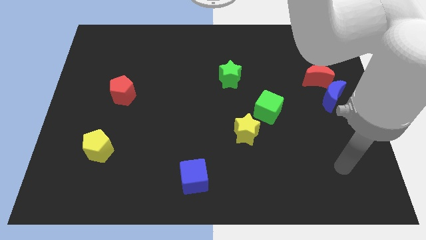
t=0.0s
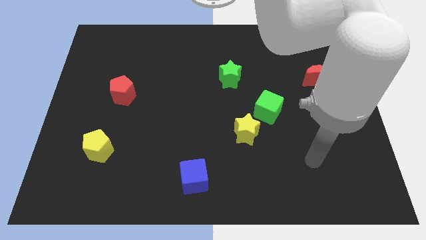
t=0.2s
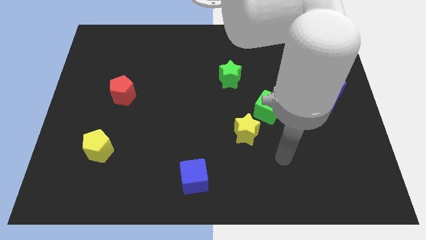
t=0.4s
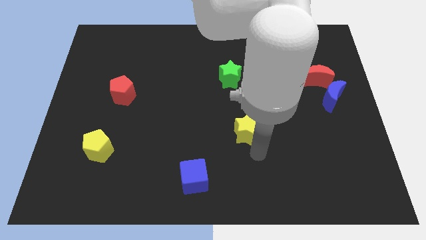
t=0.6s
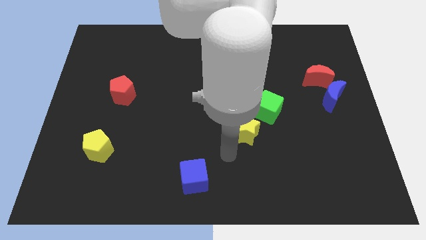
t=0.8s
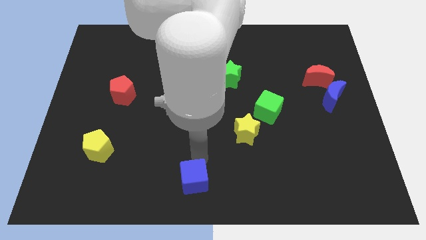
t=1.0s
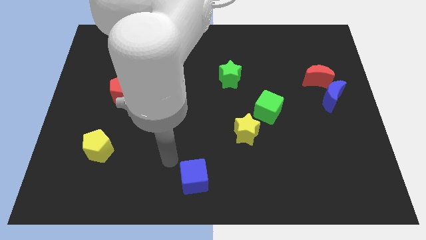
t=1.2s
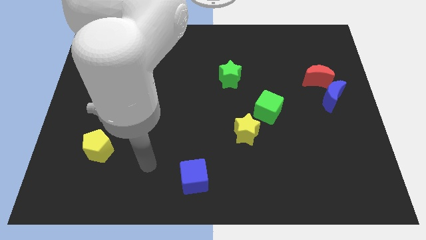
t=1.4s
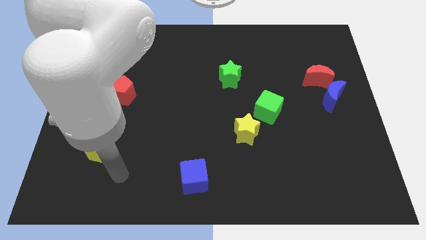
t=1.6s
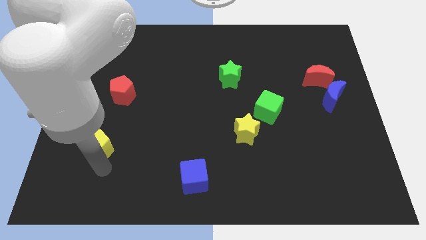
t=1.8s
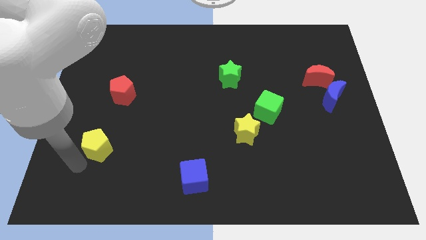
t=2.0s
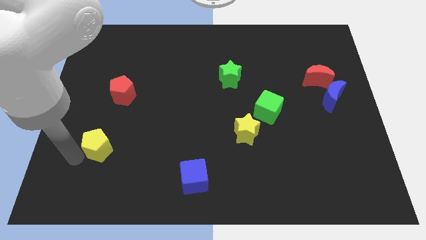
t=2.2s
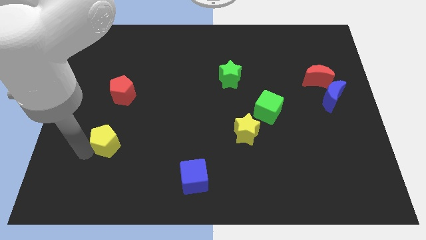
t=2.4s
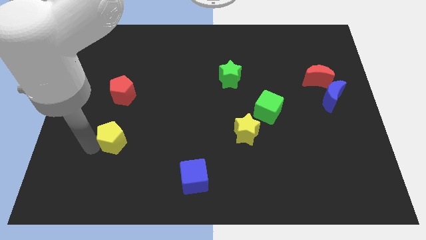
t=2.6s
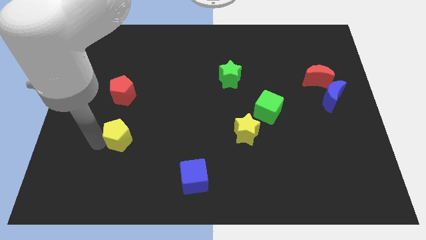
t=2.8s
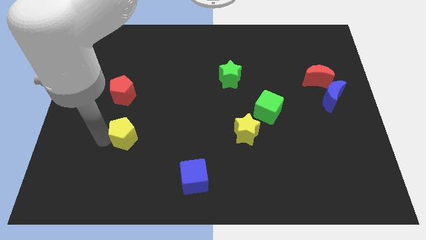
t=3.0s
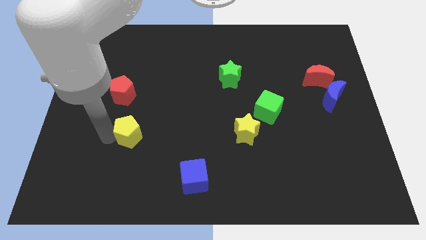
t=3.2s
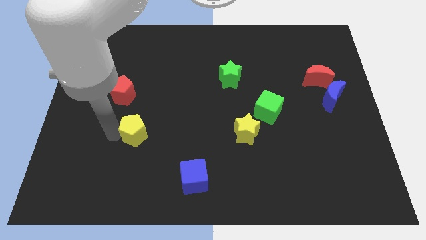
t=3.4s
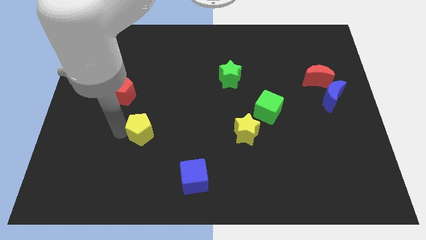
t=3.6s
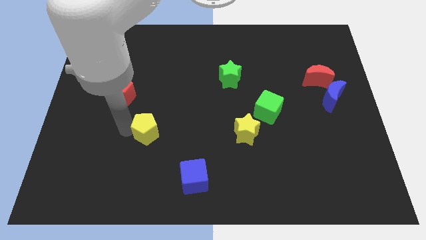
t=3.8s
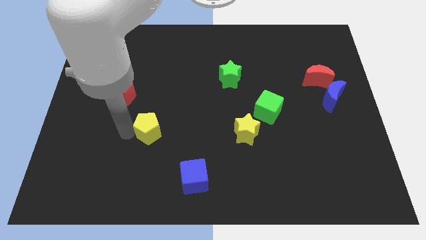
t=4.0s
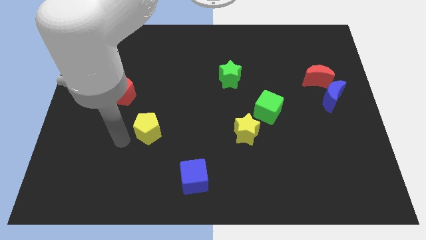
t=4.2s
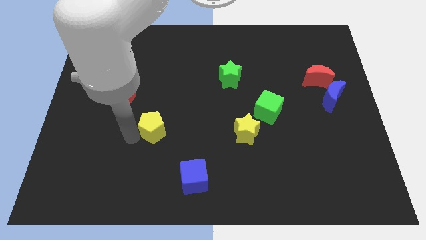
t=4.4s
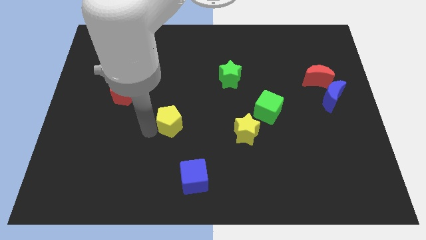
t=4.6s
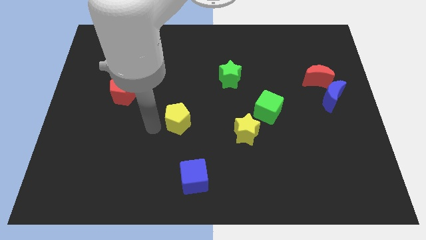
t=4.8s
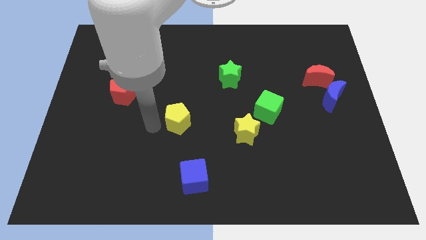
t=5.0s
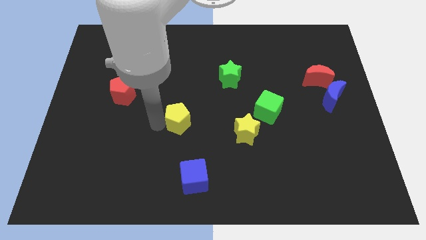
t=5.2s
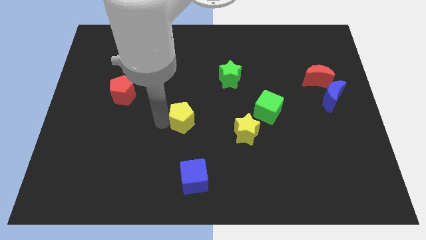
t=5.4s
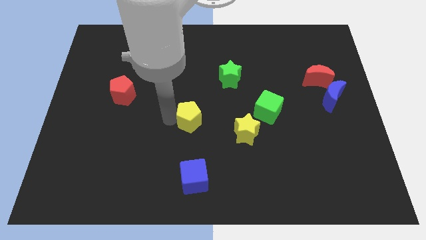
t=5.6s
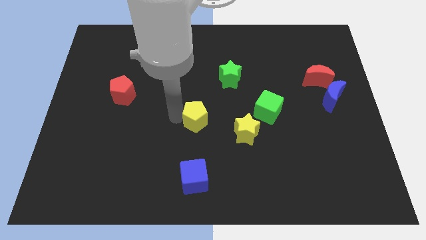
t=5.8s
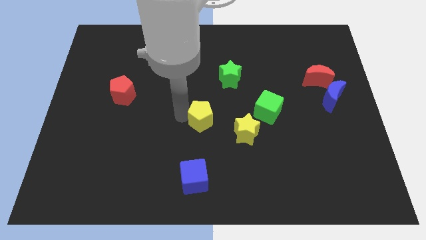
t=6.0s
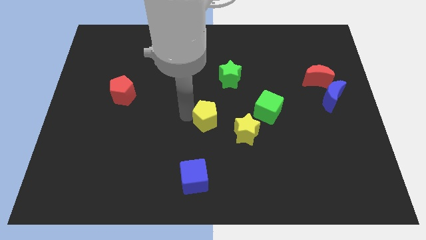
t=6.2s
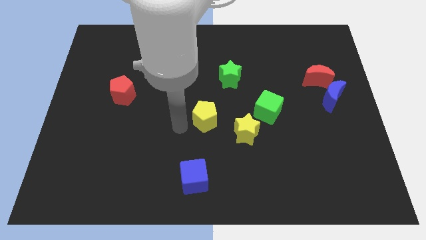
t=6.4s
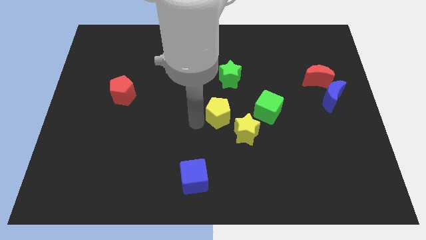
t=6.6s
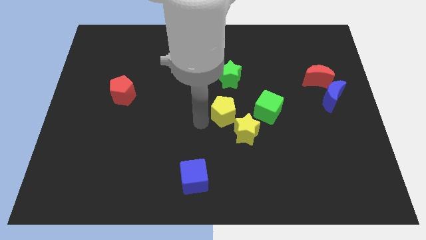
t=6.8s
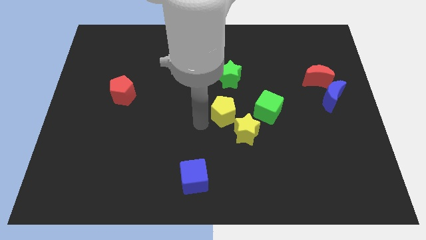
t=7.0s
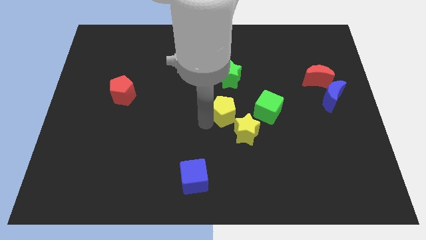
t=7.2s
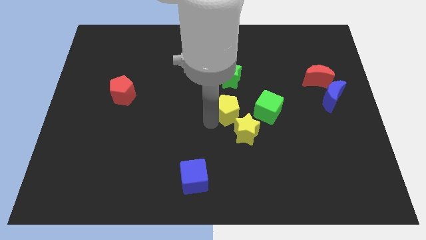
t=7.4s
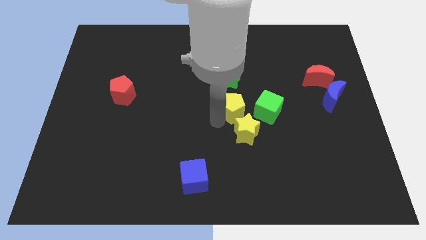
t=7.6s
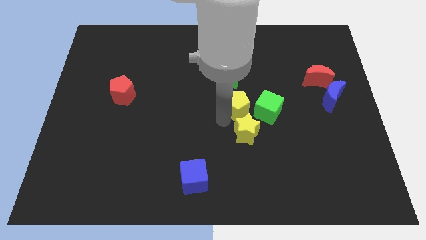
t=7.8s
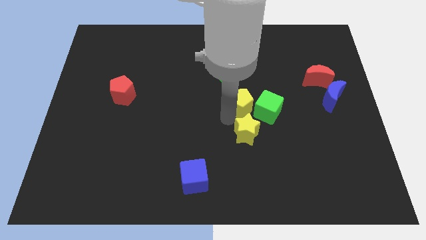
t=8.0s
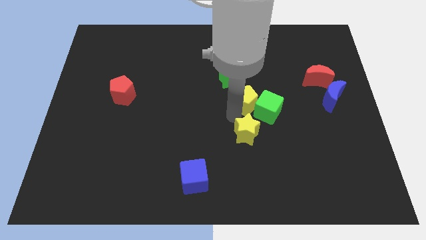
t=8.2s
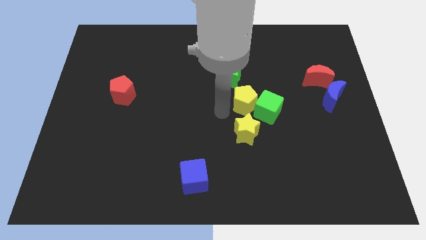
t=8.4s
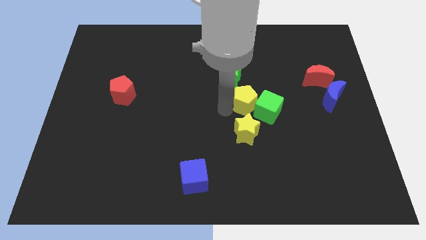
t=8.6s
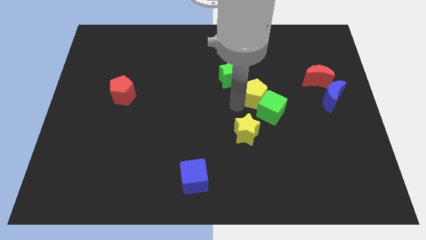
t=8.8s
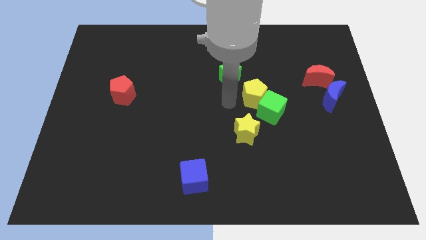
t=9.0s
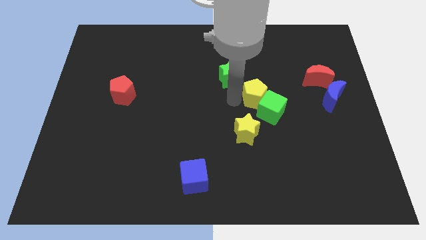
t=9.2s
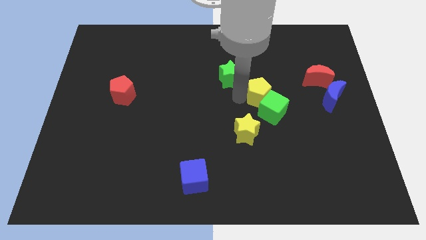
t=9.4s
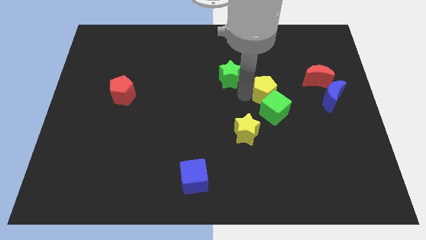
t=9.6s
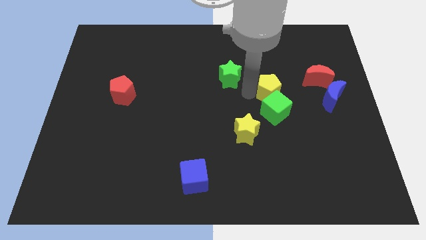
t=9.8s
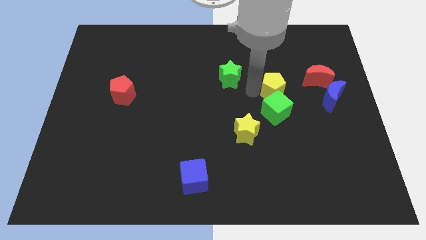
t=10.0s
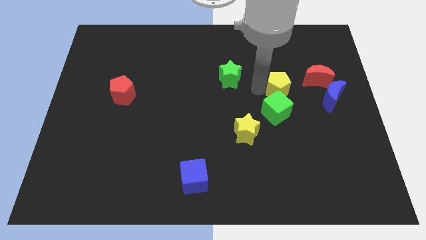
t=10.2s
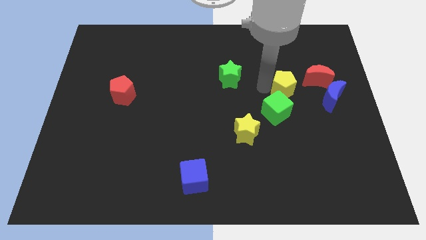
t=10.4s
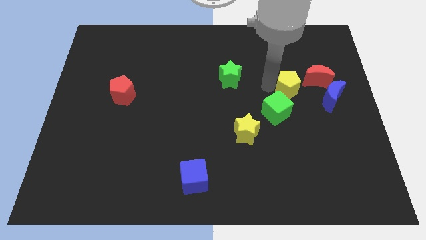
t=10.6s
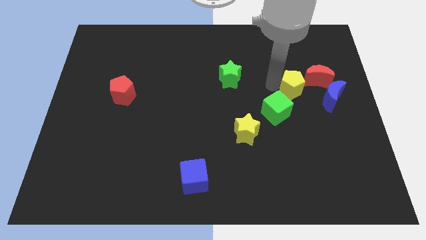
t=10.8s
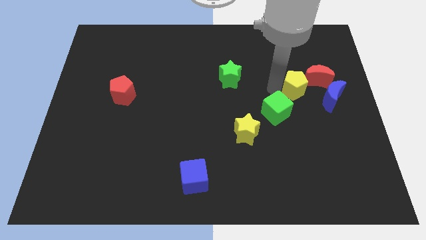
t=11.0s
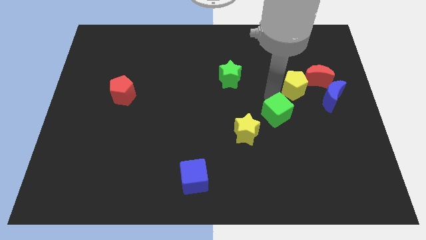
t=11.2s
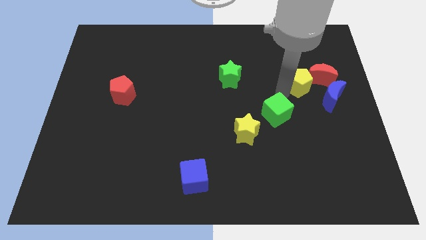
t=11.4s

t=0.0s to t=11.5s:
slide the yellow pentagon next to the red moon

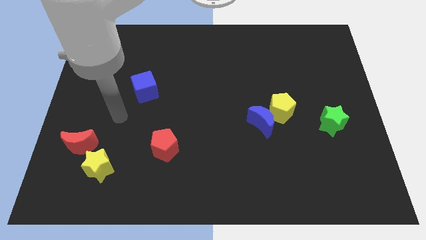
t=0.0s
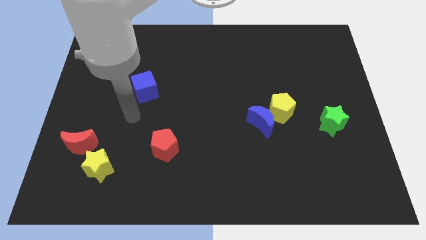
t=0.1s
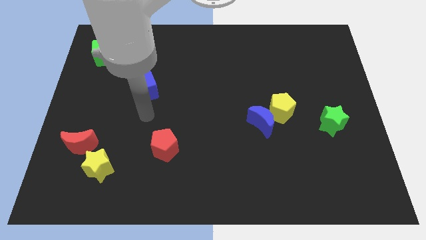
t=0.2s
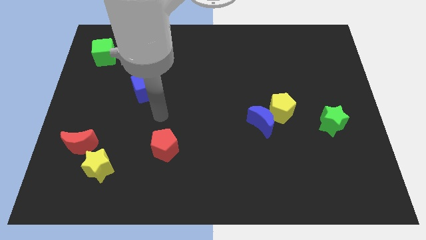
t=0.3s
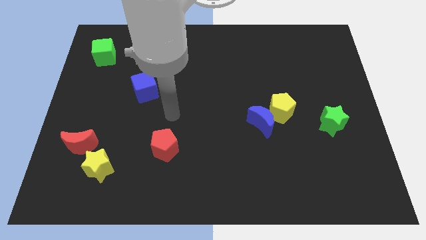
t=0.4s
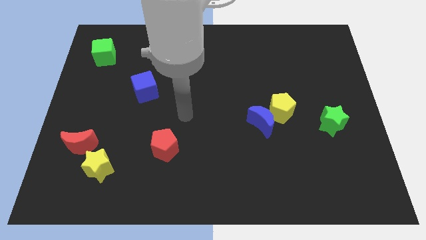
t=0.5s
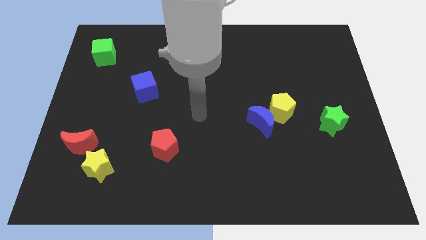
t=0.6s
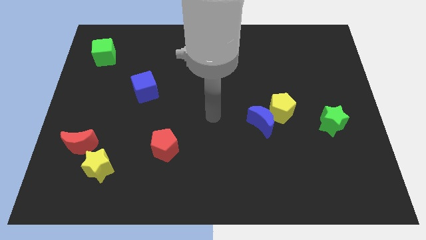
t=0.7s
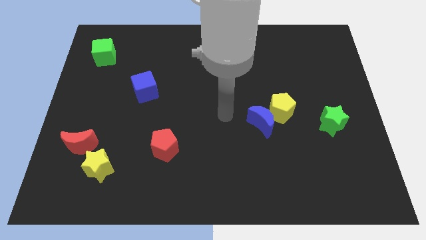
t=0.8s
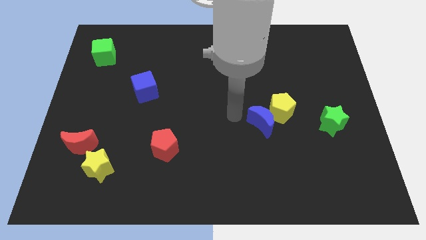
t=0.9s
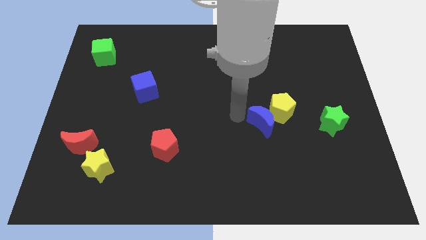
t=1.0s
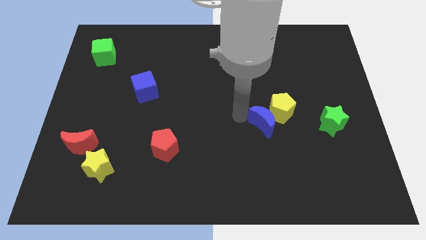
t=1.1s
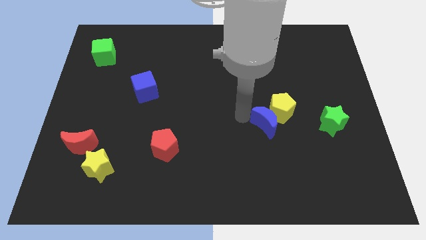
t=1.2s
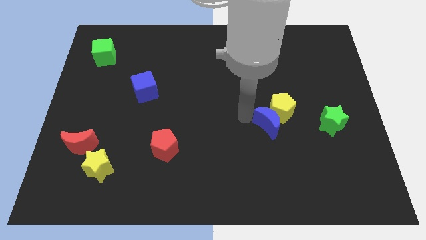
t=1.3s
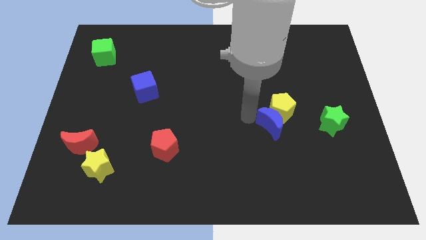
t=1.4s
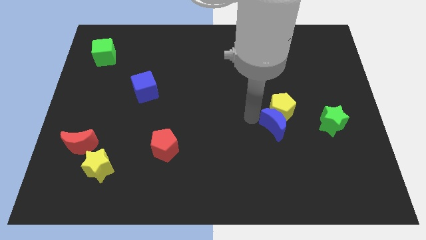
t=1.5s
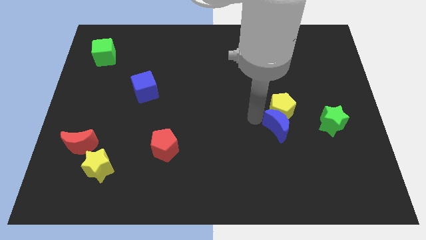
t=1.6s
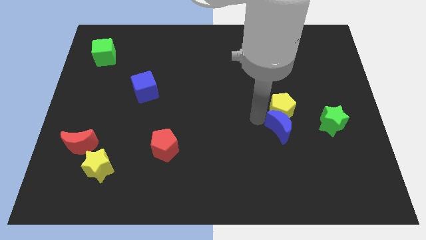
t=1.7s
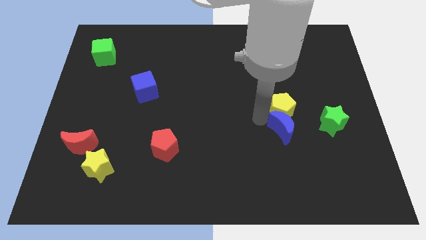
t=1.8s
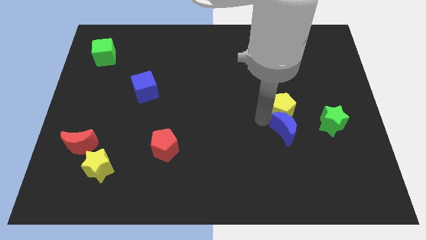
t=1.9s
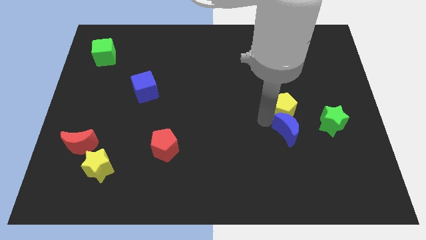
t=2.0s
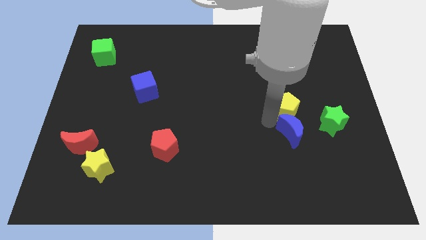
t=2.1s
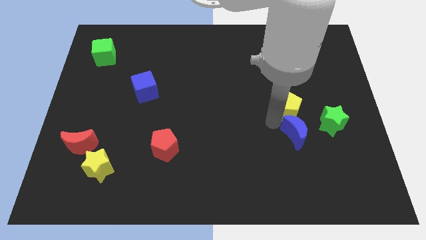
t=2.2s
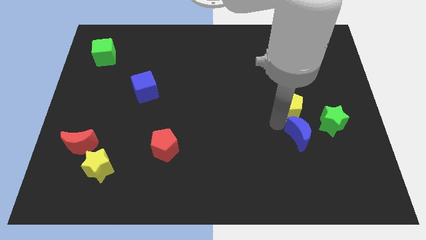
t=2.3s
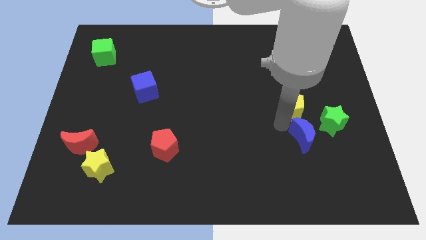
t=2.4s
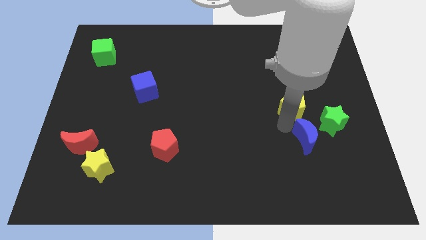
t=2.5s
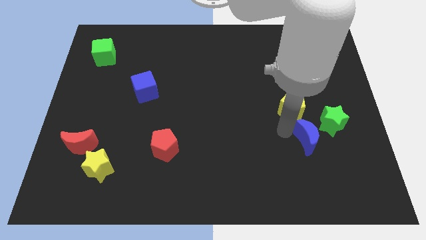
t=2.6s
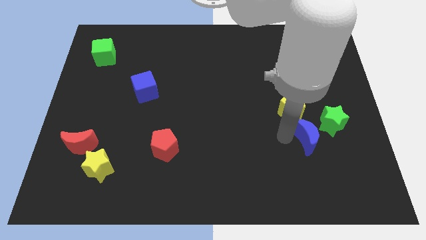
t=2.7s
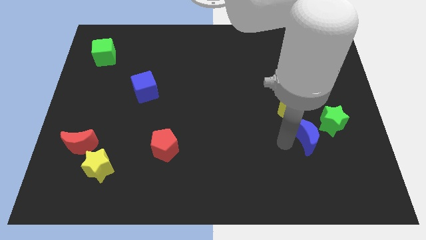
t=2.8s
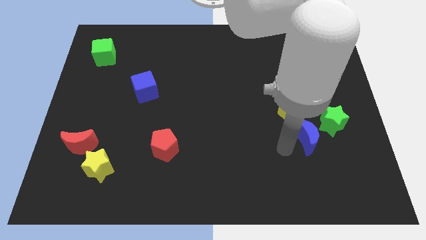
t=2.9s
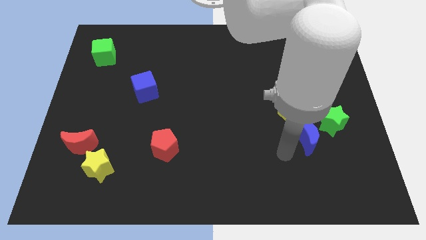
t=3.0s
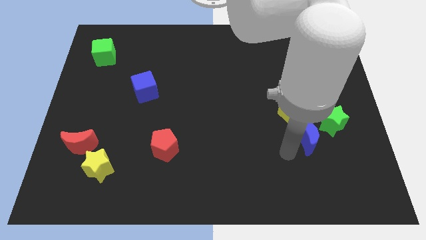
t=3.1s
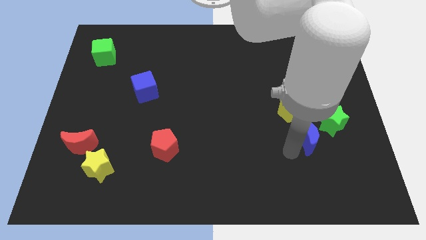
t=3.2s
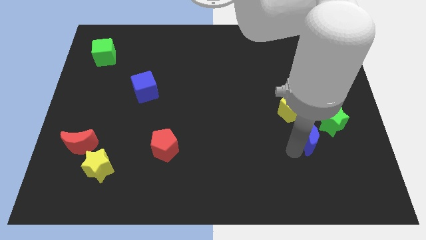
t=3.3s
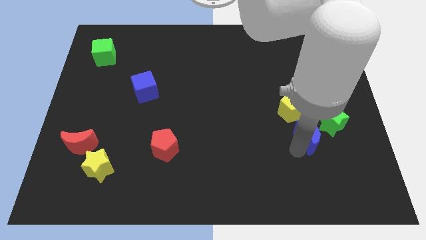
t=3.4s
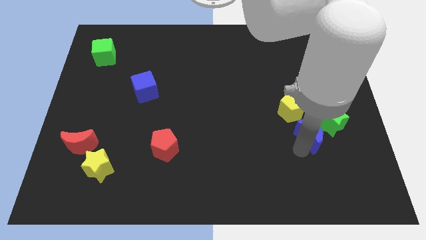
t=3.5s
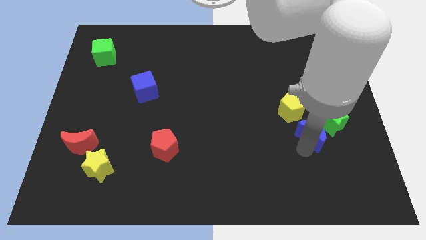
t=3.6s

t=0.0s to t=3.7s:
push the blue moon towards the green star
